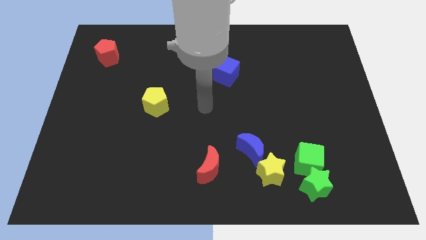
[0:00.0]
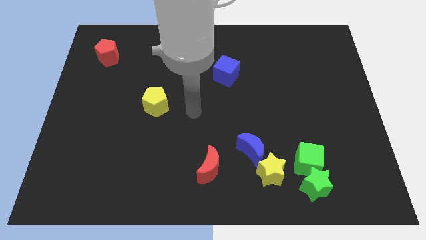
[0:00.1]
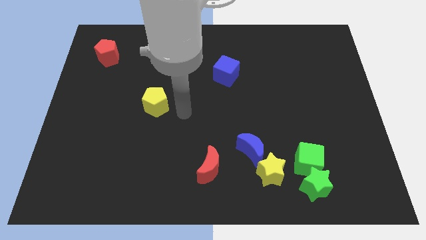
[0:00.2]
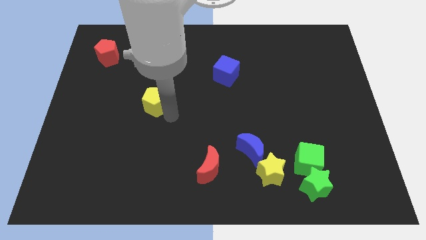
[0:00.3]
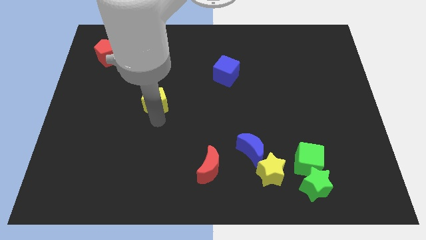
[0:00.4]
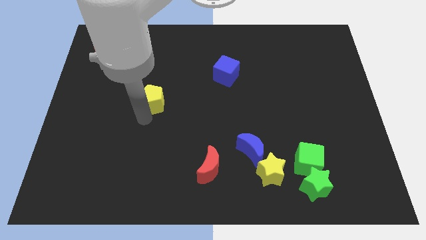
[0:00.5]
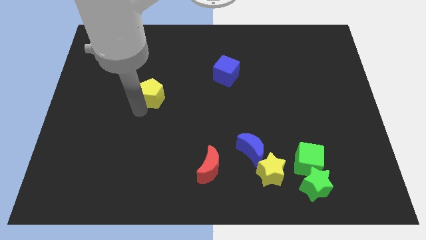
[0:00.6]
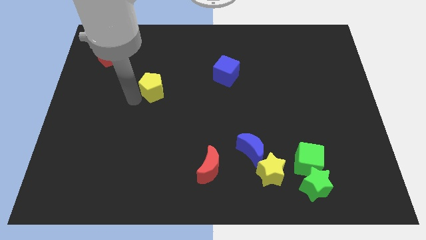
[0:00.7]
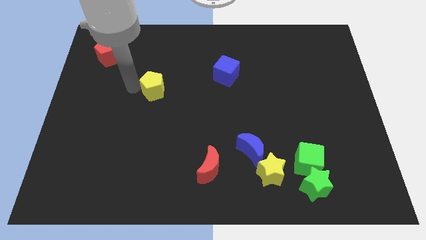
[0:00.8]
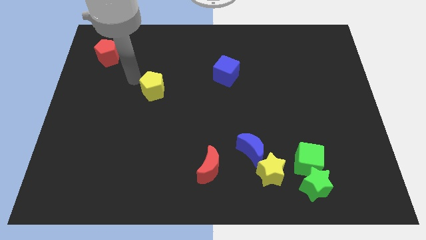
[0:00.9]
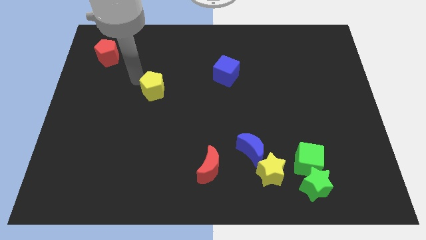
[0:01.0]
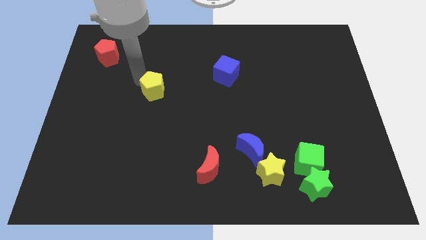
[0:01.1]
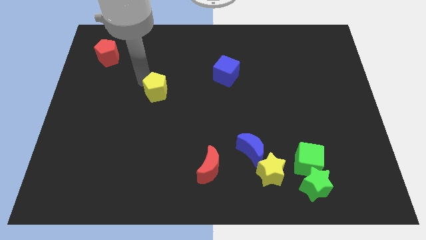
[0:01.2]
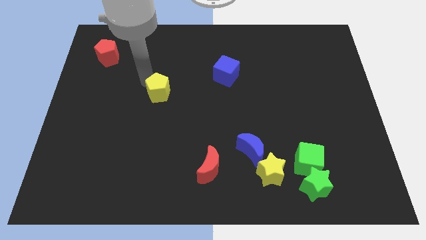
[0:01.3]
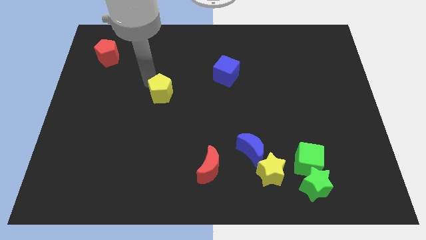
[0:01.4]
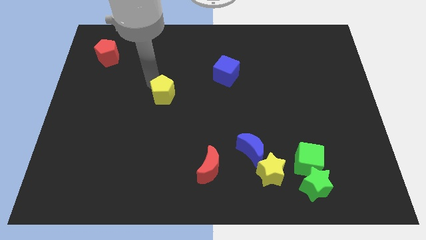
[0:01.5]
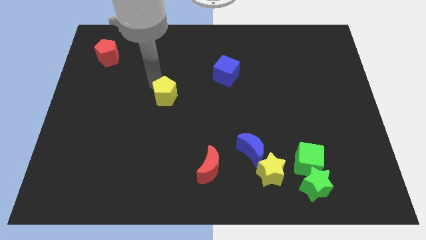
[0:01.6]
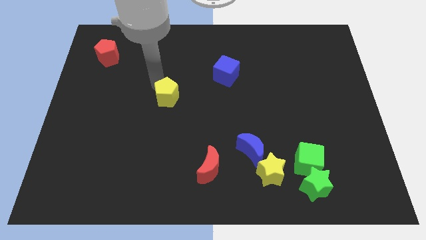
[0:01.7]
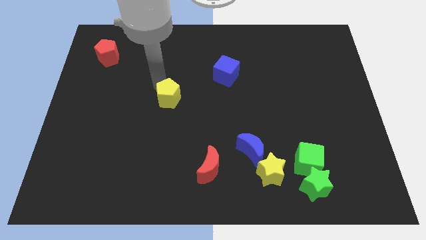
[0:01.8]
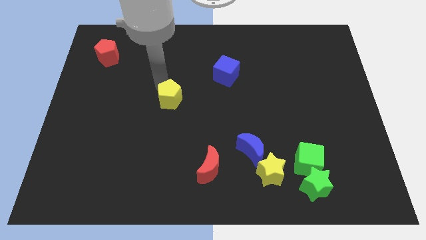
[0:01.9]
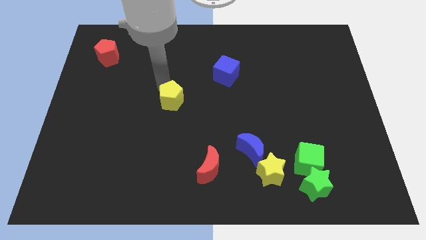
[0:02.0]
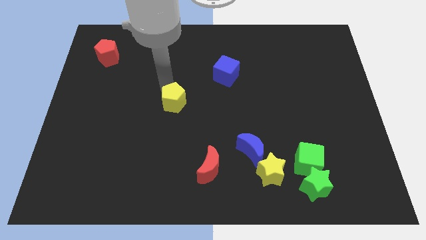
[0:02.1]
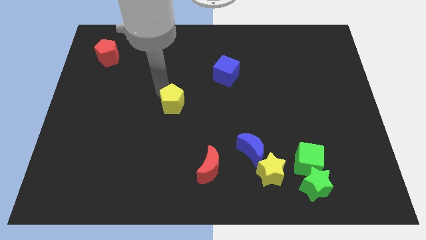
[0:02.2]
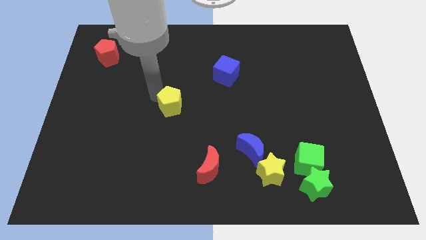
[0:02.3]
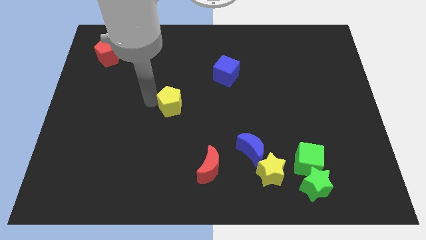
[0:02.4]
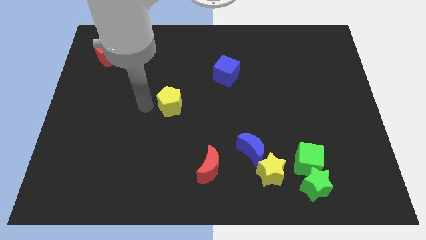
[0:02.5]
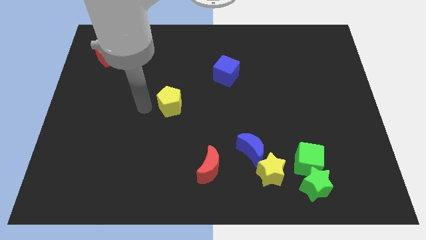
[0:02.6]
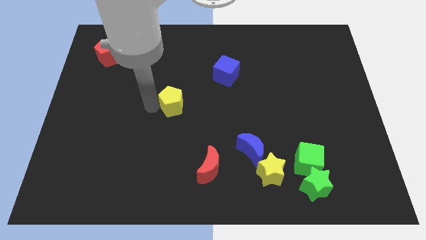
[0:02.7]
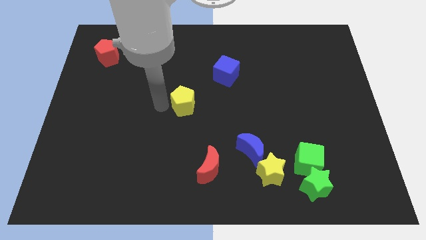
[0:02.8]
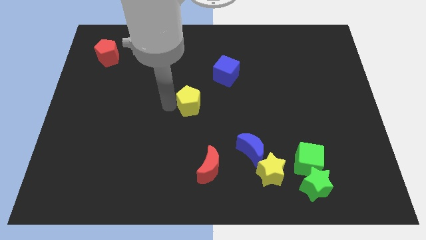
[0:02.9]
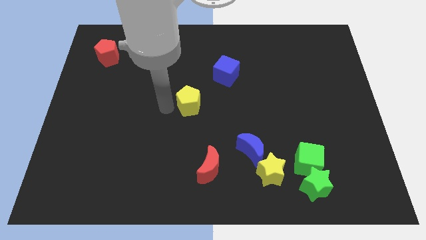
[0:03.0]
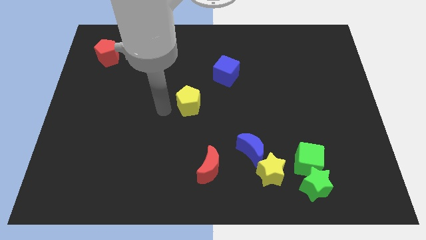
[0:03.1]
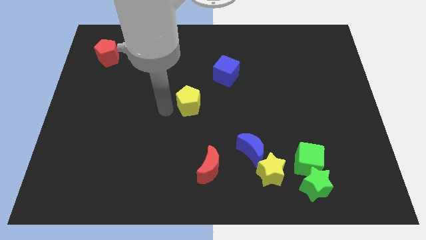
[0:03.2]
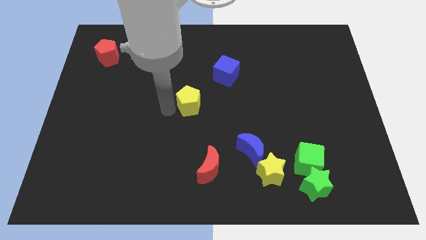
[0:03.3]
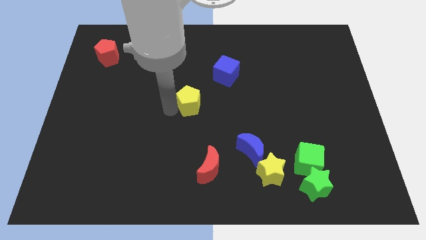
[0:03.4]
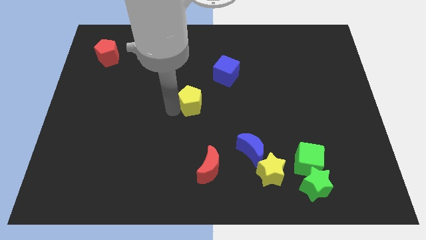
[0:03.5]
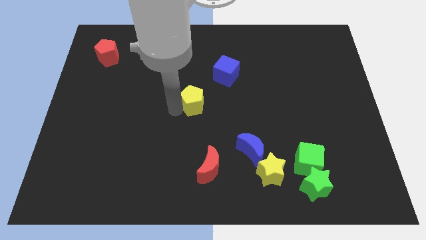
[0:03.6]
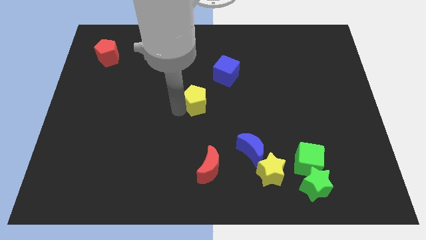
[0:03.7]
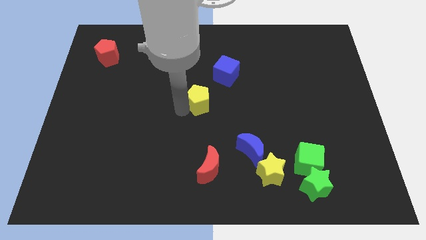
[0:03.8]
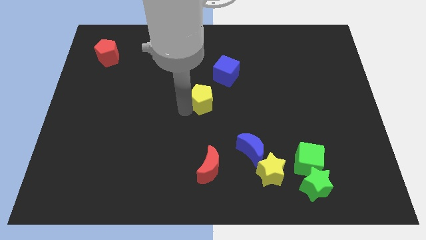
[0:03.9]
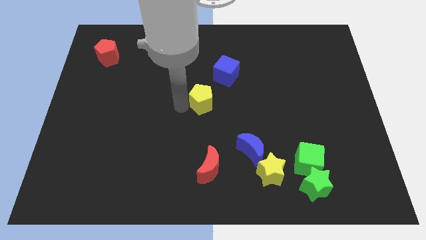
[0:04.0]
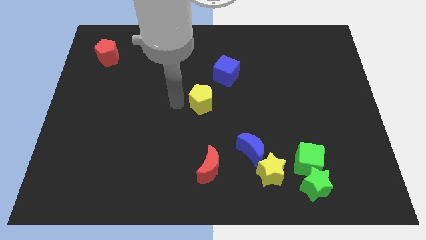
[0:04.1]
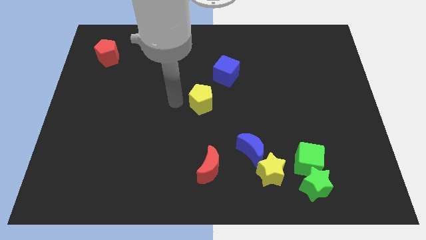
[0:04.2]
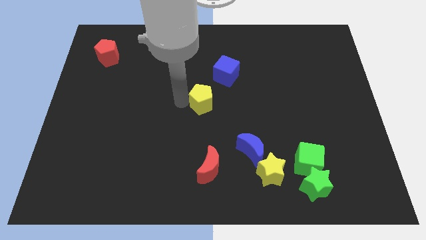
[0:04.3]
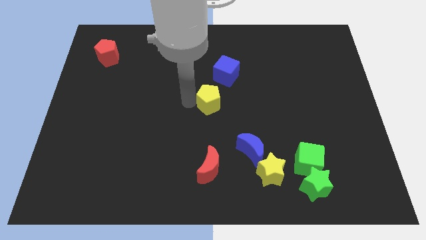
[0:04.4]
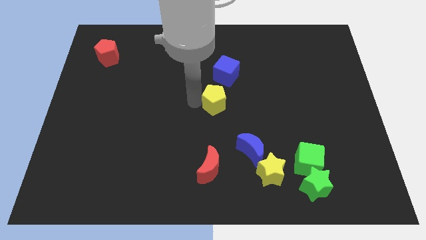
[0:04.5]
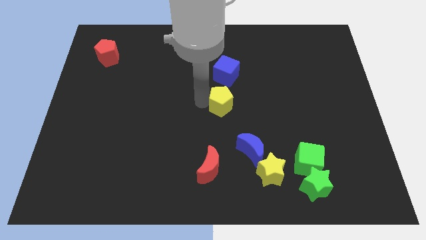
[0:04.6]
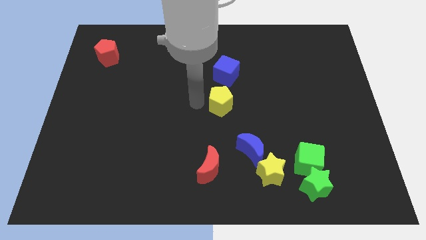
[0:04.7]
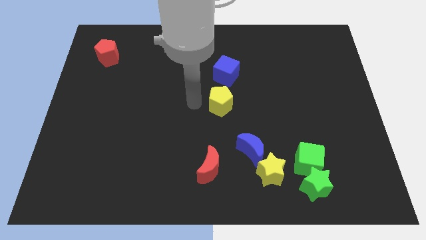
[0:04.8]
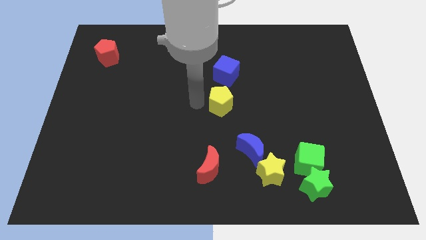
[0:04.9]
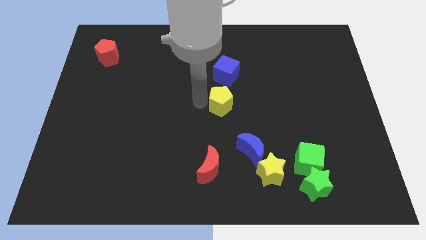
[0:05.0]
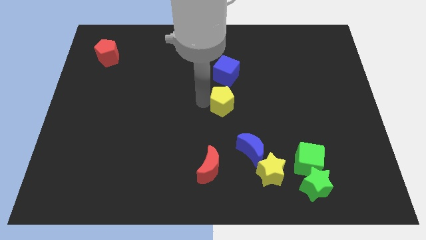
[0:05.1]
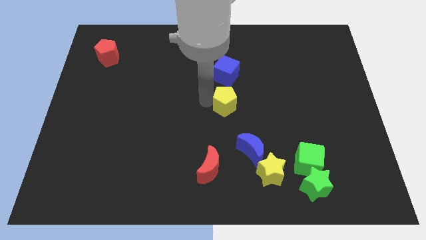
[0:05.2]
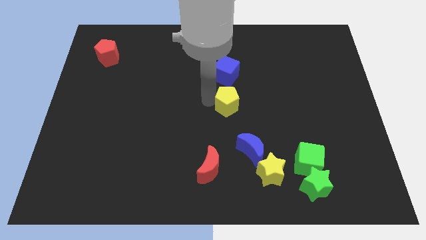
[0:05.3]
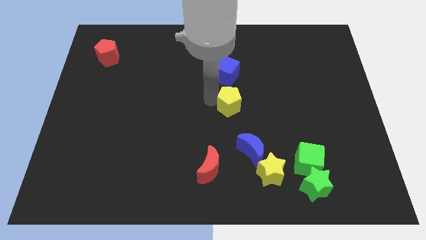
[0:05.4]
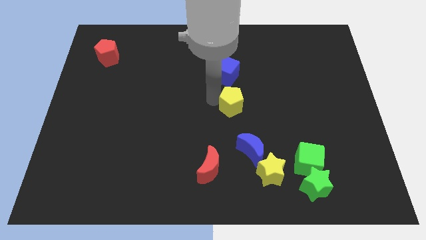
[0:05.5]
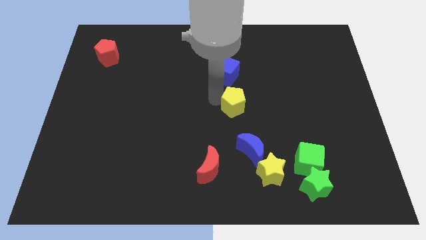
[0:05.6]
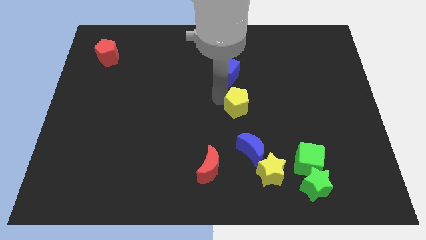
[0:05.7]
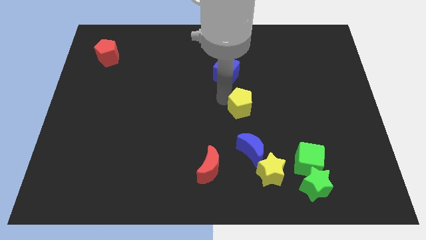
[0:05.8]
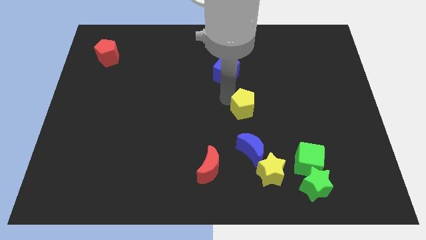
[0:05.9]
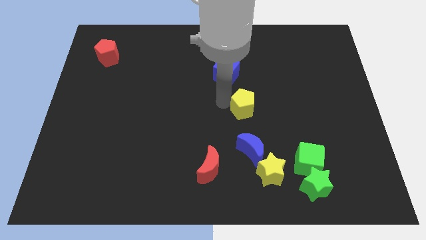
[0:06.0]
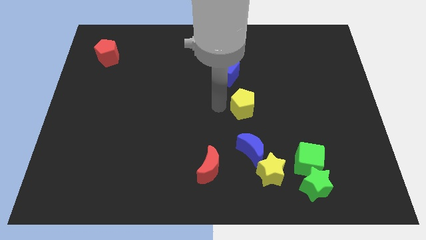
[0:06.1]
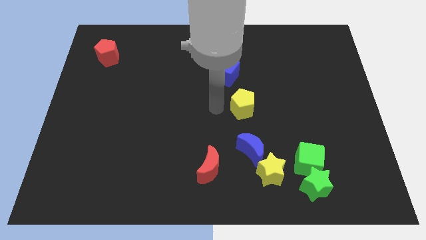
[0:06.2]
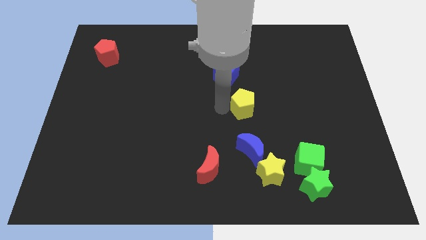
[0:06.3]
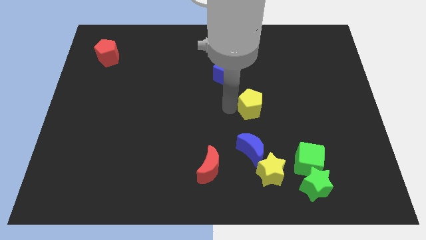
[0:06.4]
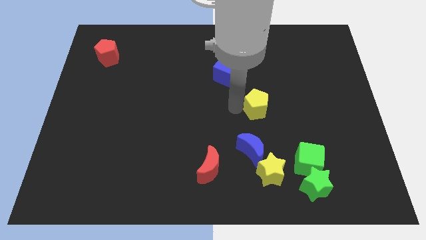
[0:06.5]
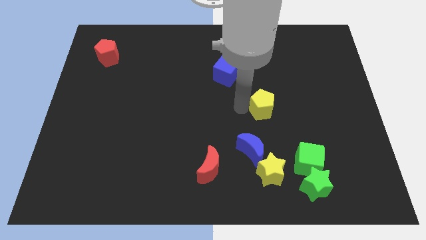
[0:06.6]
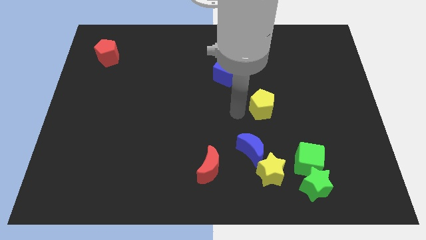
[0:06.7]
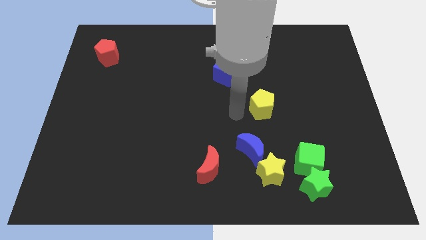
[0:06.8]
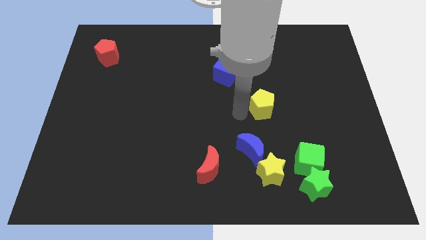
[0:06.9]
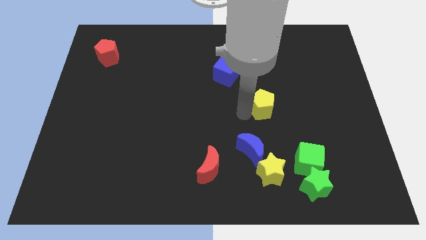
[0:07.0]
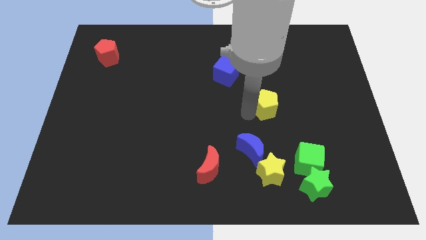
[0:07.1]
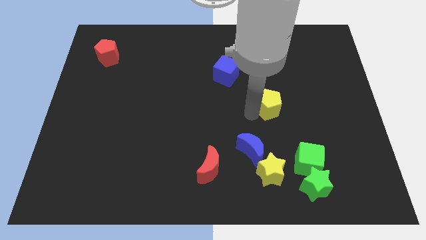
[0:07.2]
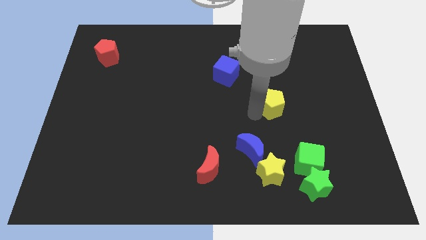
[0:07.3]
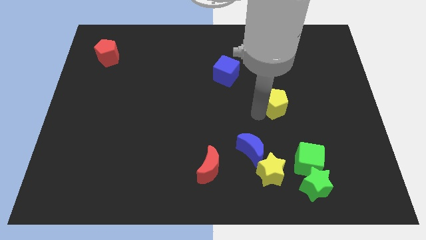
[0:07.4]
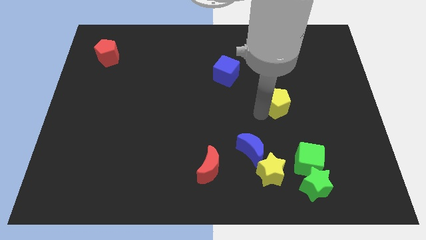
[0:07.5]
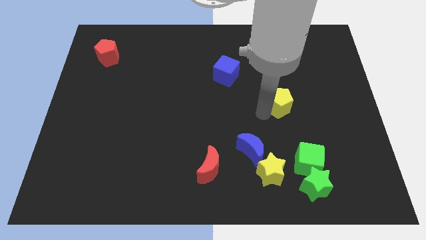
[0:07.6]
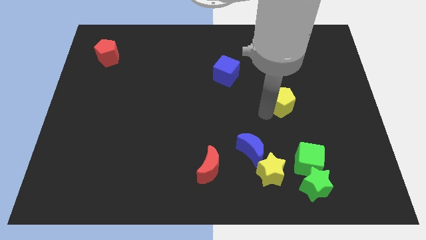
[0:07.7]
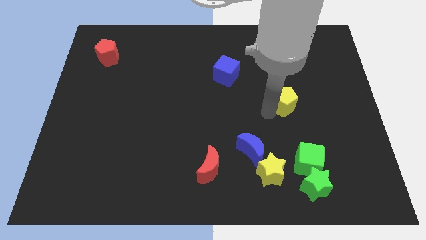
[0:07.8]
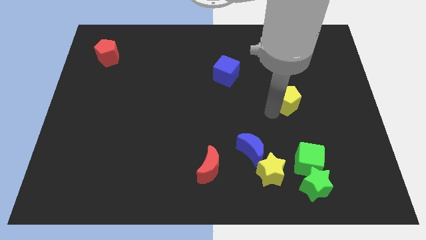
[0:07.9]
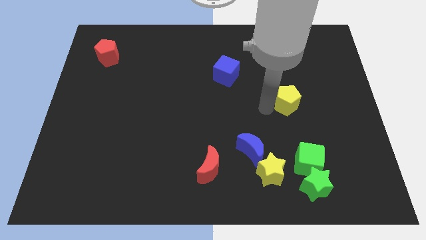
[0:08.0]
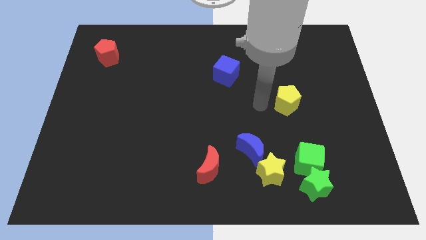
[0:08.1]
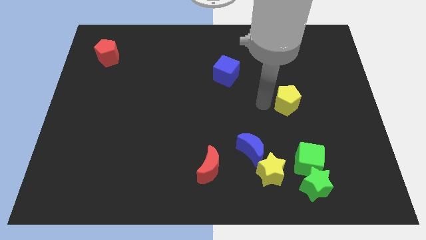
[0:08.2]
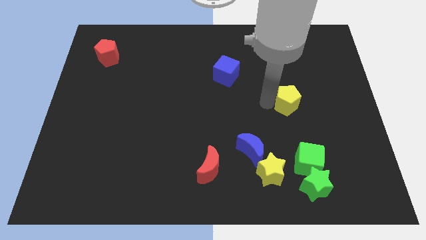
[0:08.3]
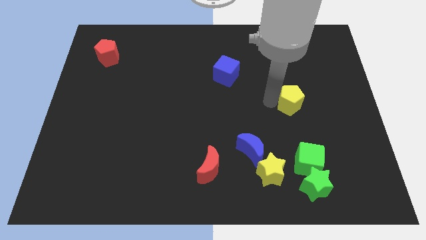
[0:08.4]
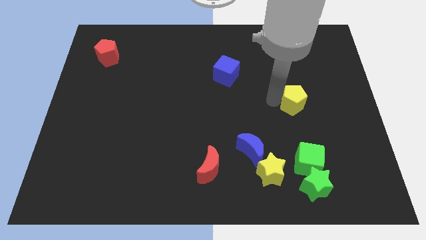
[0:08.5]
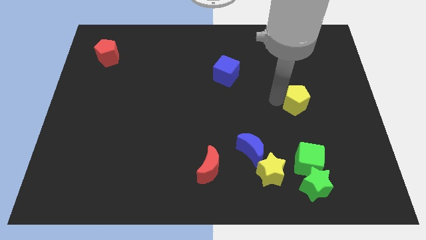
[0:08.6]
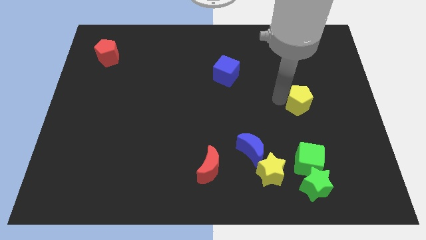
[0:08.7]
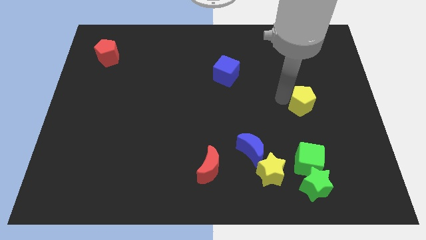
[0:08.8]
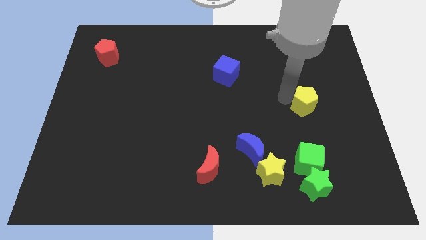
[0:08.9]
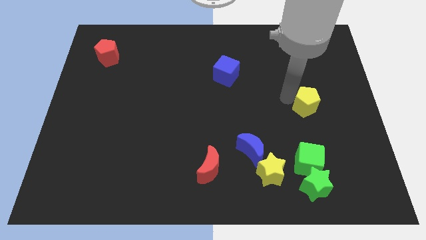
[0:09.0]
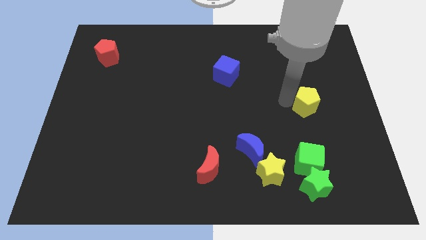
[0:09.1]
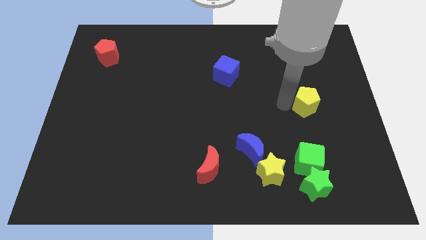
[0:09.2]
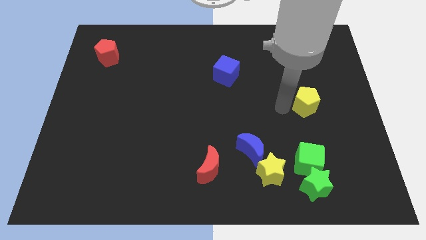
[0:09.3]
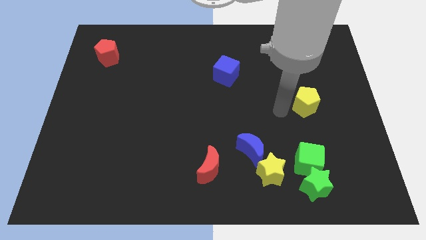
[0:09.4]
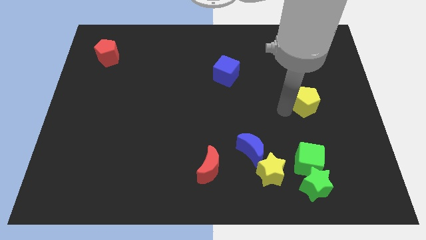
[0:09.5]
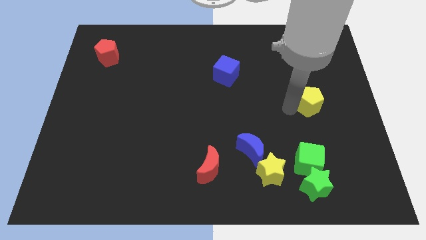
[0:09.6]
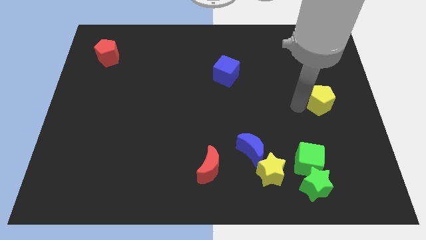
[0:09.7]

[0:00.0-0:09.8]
move the yellow pentagon to the right side
